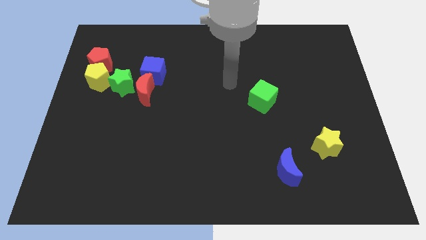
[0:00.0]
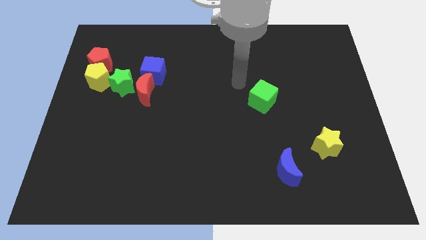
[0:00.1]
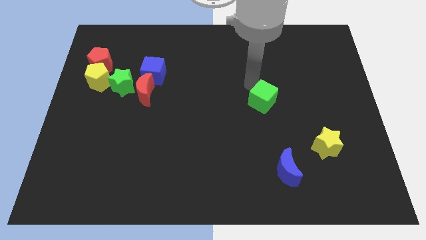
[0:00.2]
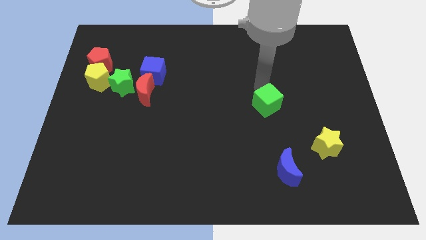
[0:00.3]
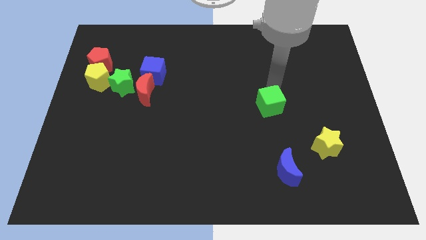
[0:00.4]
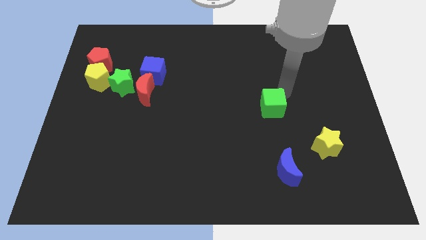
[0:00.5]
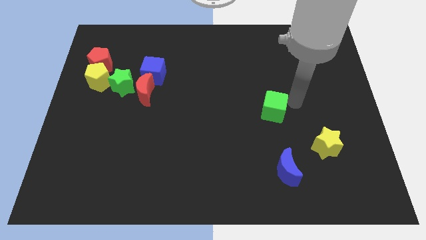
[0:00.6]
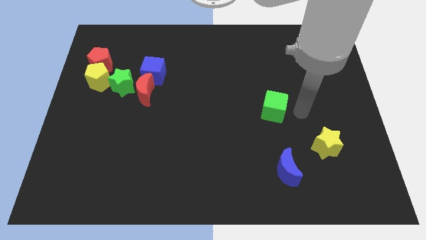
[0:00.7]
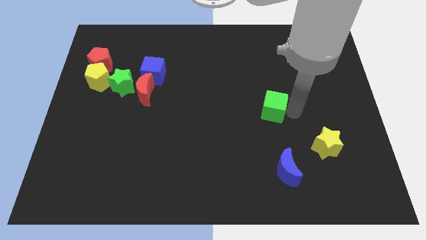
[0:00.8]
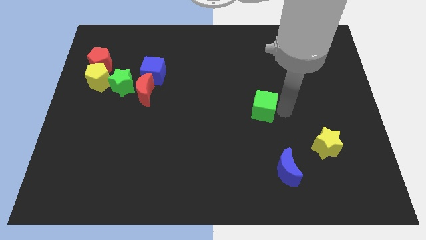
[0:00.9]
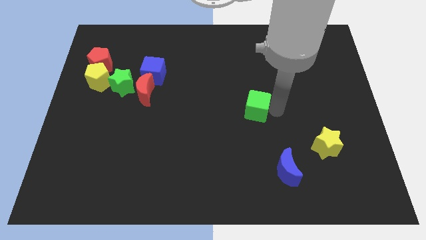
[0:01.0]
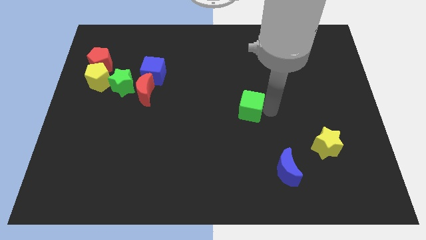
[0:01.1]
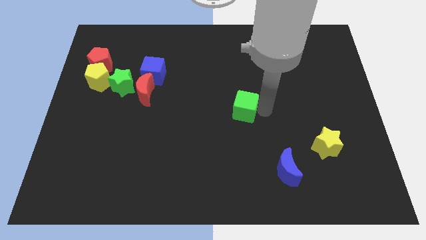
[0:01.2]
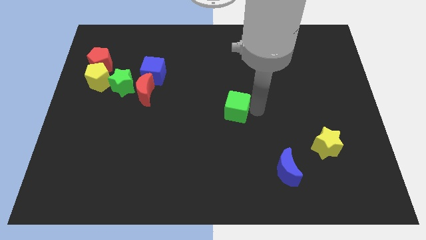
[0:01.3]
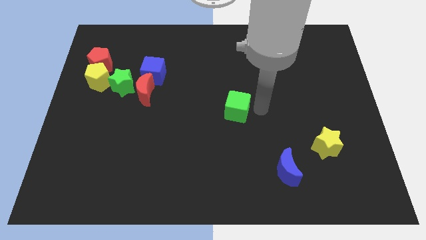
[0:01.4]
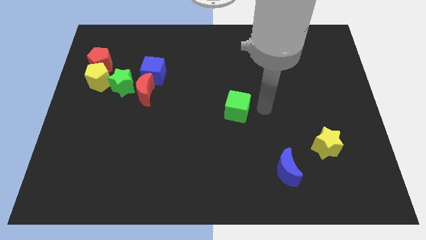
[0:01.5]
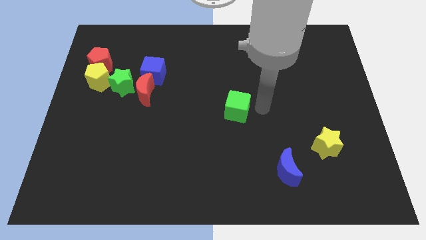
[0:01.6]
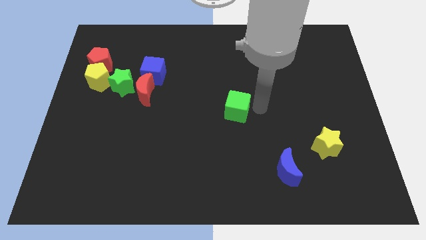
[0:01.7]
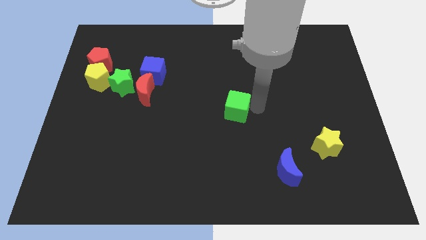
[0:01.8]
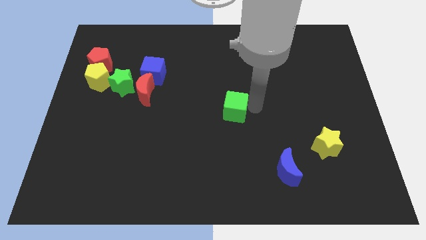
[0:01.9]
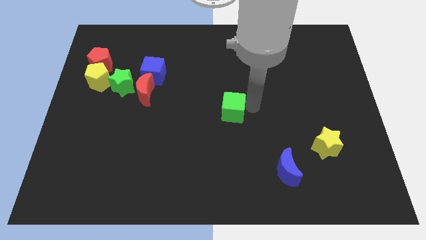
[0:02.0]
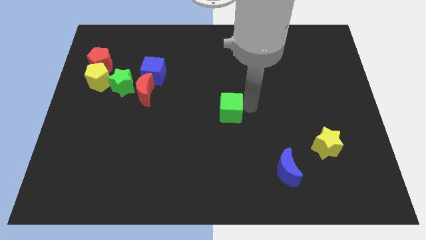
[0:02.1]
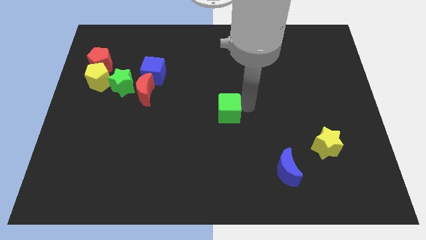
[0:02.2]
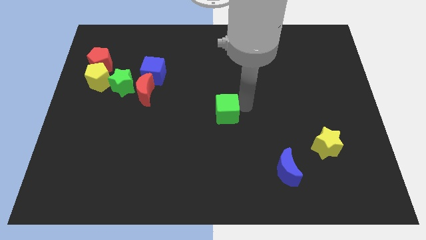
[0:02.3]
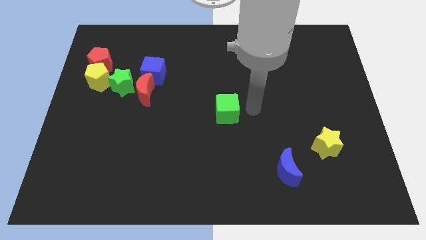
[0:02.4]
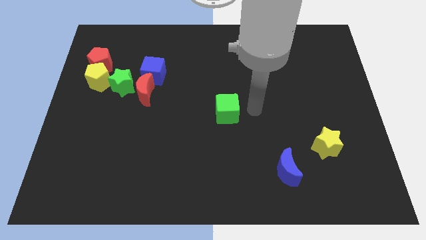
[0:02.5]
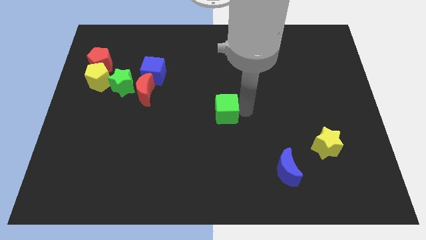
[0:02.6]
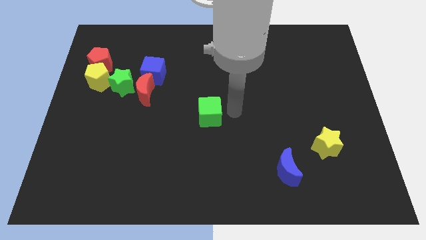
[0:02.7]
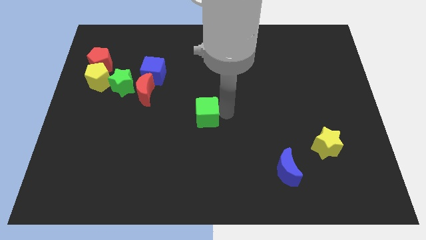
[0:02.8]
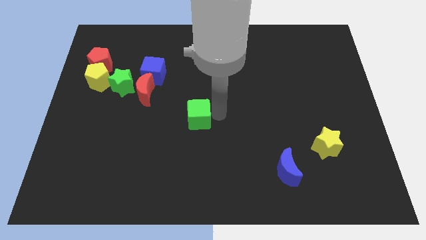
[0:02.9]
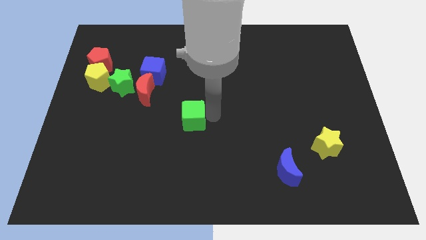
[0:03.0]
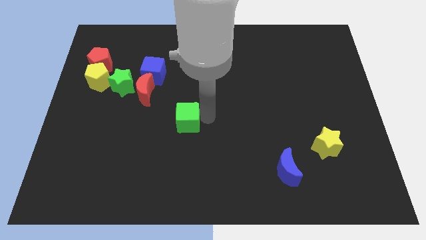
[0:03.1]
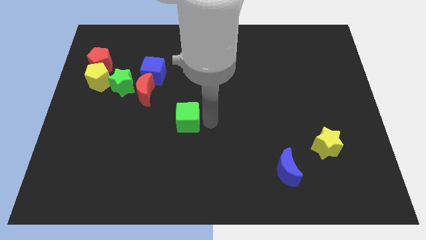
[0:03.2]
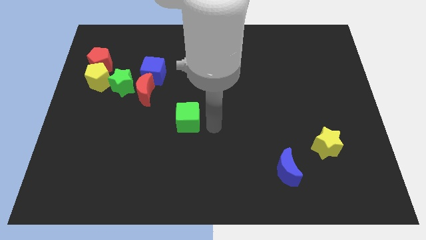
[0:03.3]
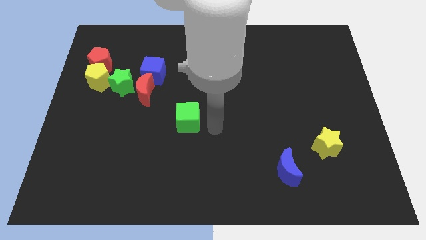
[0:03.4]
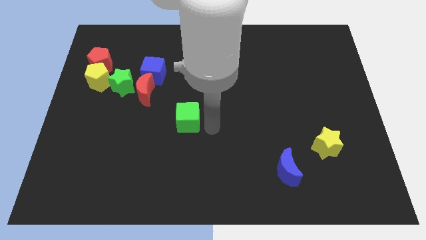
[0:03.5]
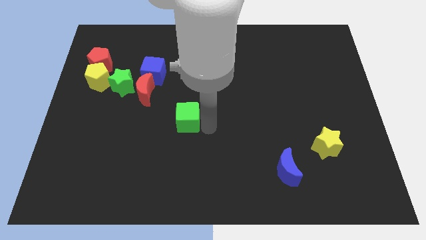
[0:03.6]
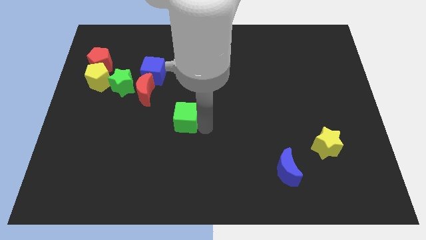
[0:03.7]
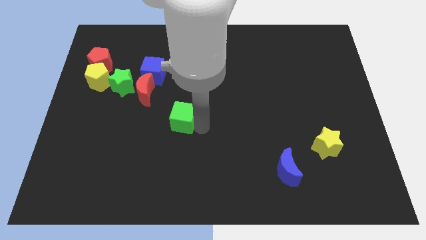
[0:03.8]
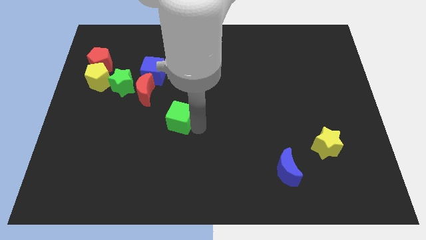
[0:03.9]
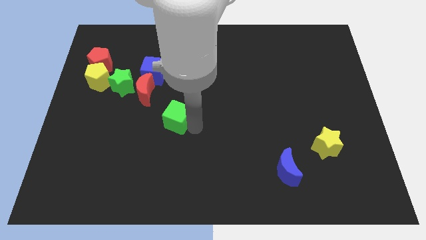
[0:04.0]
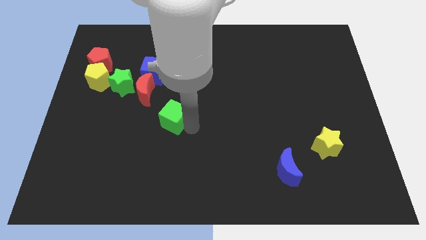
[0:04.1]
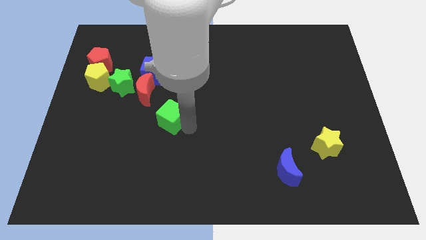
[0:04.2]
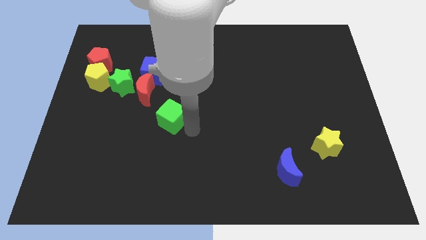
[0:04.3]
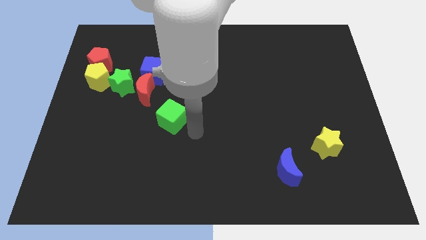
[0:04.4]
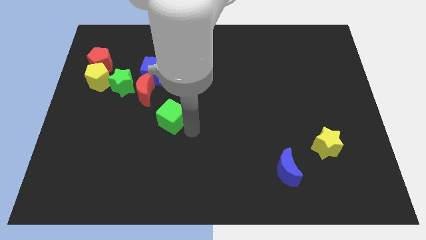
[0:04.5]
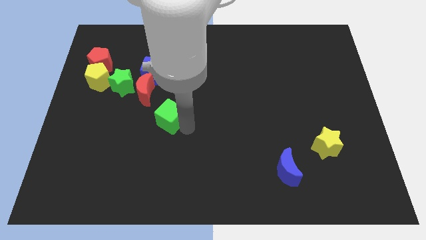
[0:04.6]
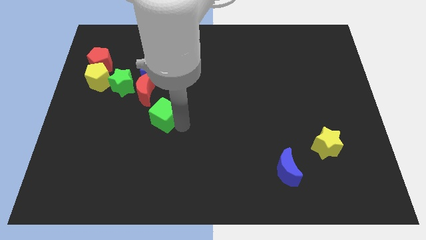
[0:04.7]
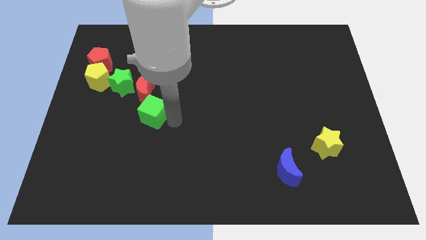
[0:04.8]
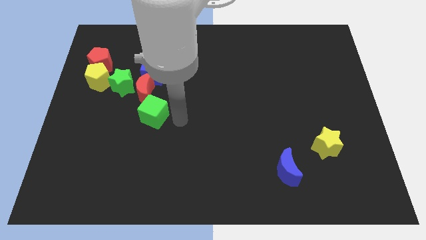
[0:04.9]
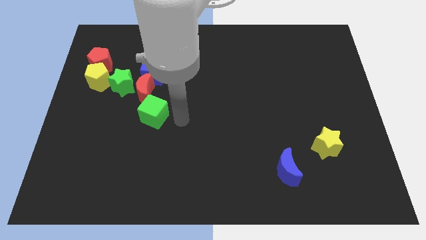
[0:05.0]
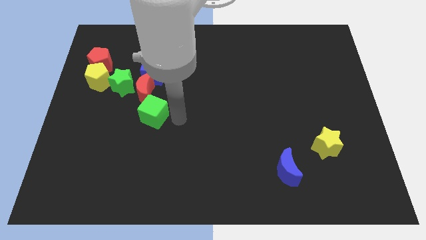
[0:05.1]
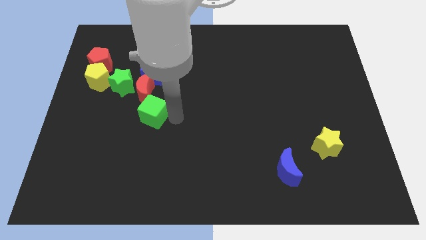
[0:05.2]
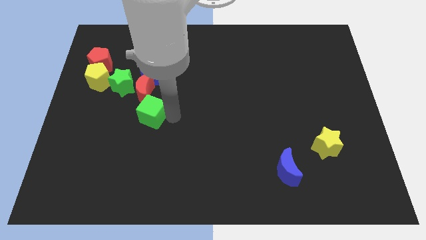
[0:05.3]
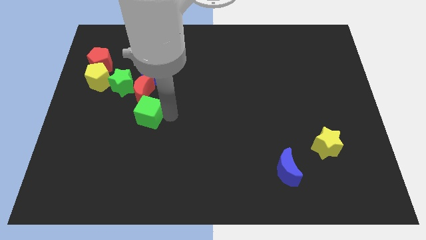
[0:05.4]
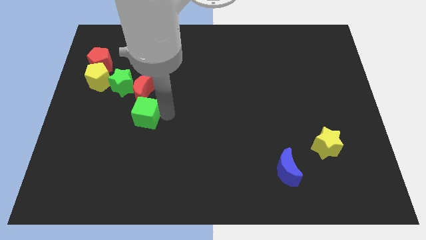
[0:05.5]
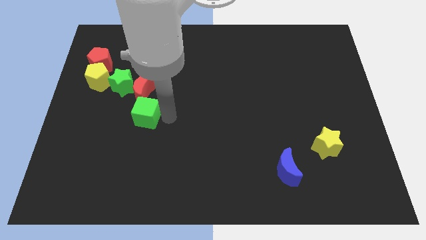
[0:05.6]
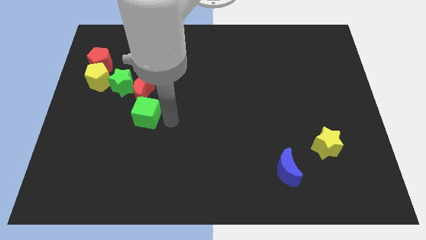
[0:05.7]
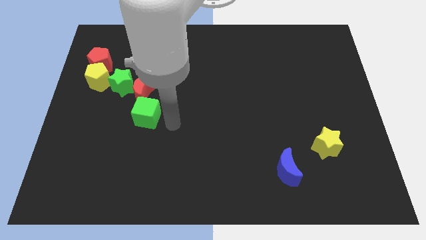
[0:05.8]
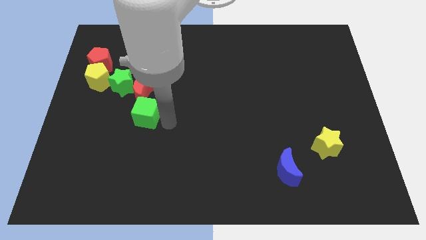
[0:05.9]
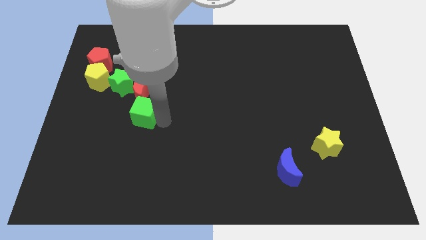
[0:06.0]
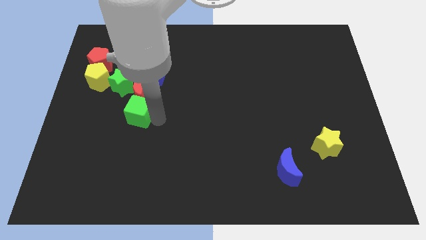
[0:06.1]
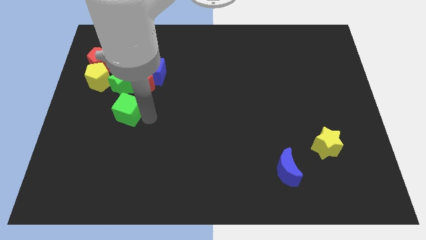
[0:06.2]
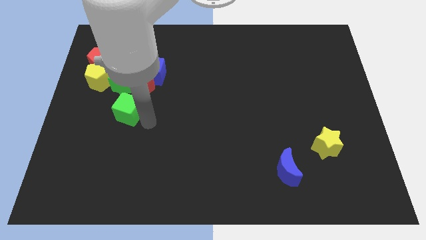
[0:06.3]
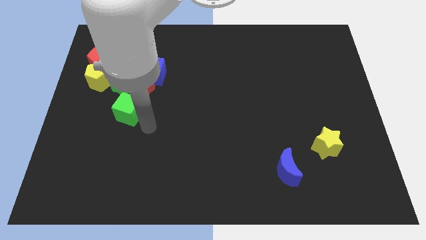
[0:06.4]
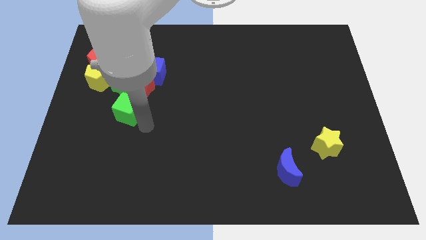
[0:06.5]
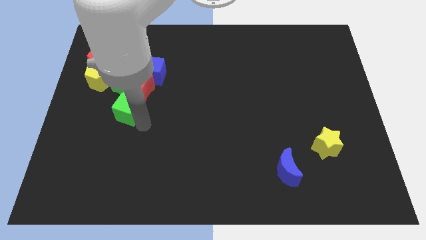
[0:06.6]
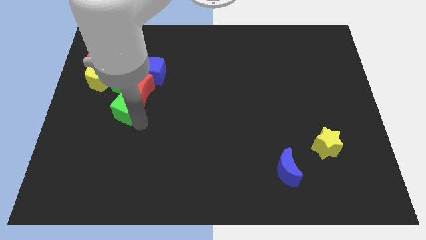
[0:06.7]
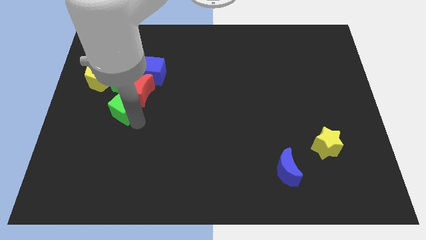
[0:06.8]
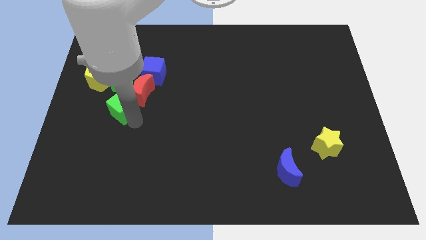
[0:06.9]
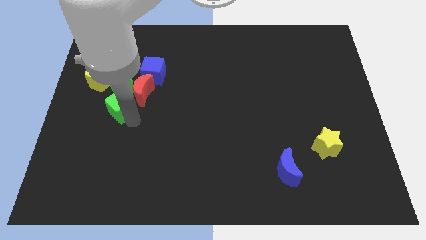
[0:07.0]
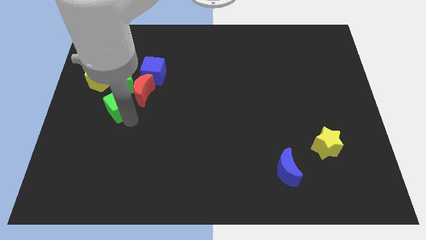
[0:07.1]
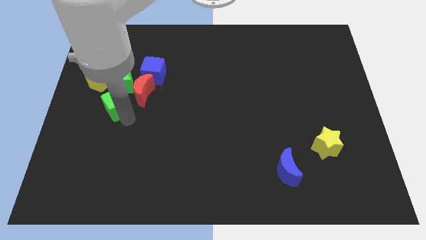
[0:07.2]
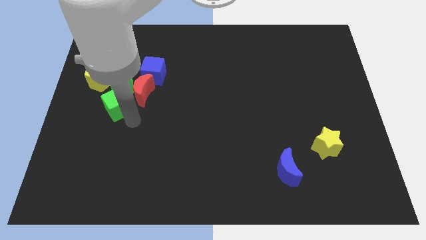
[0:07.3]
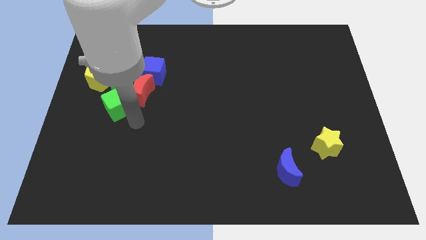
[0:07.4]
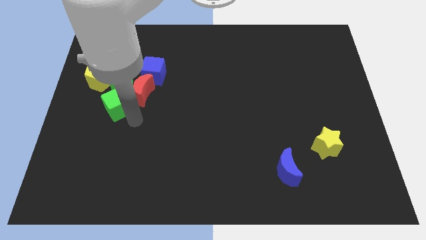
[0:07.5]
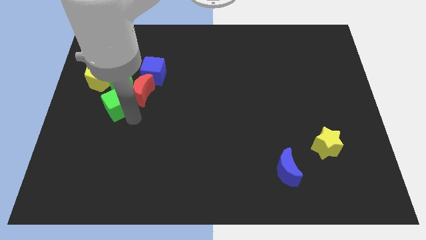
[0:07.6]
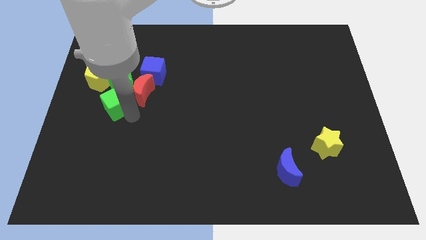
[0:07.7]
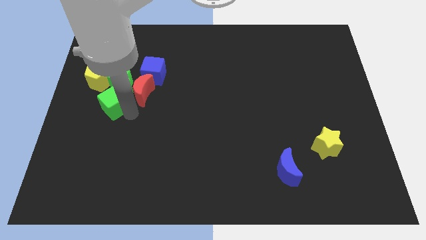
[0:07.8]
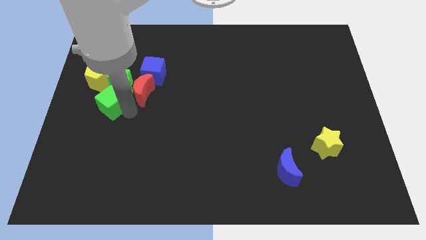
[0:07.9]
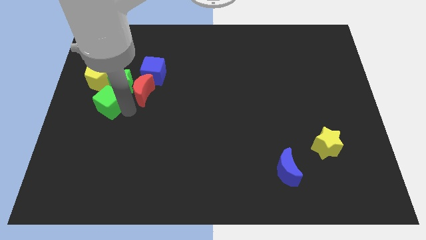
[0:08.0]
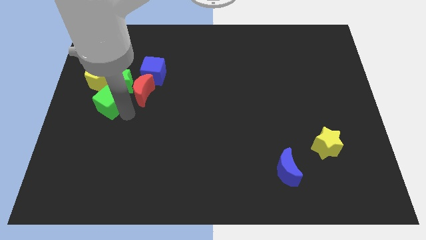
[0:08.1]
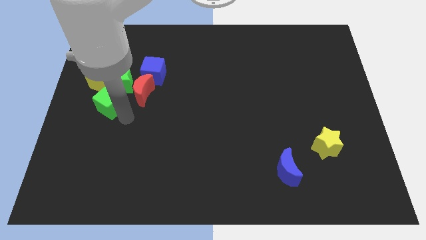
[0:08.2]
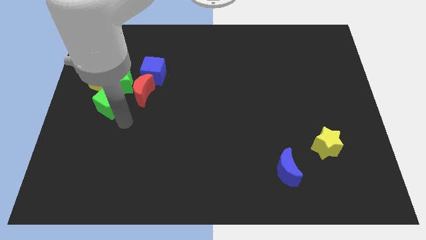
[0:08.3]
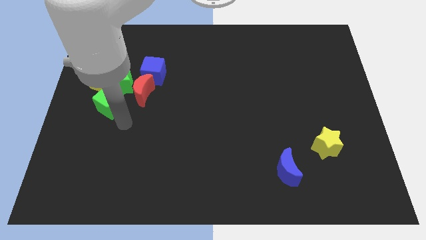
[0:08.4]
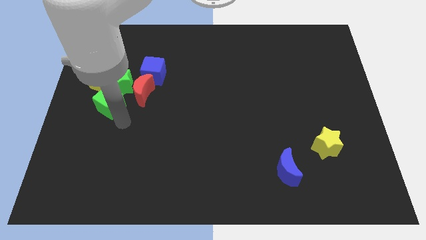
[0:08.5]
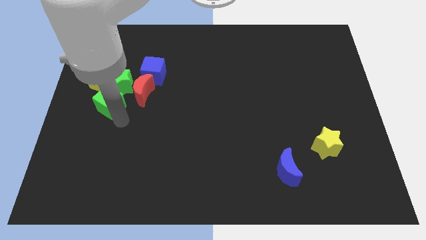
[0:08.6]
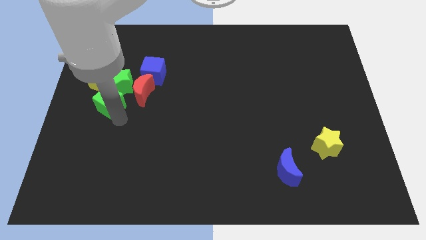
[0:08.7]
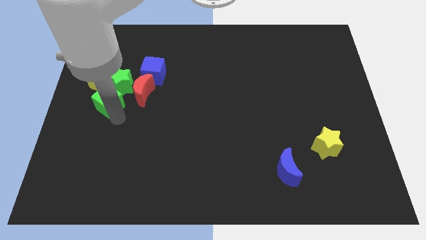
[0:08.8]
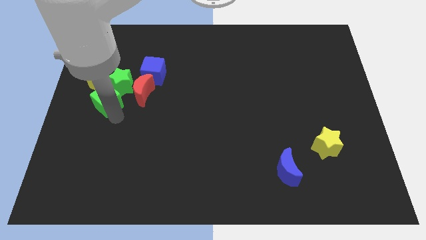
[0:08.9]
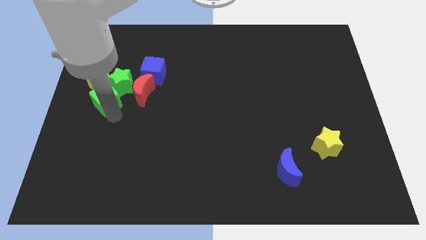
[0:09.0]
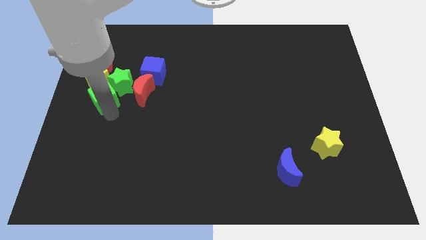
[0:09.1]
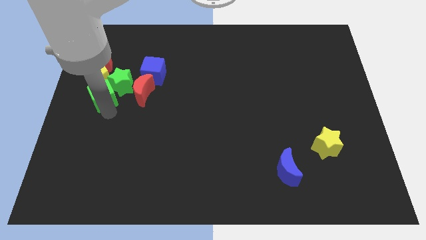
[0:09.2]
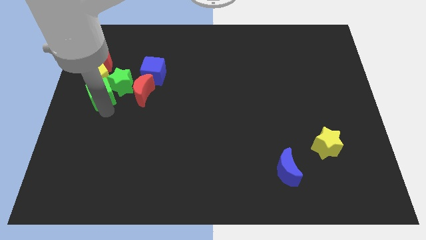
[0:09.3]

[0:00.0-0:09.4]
put the green cube next to the yellow pentagon
